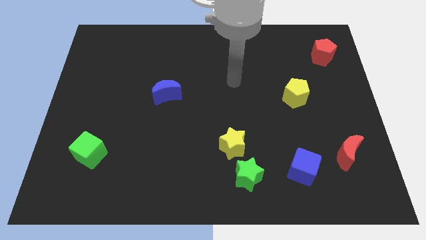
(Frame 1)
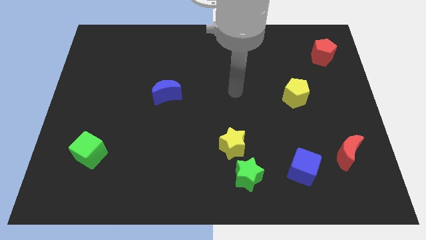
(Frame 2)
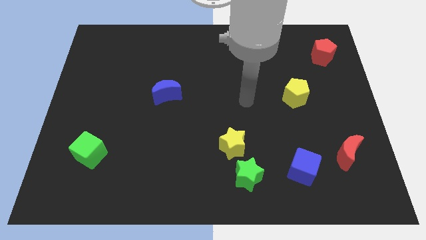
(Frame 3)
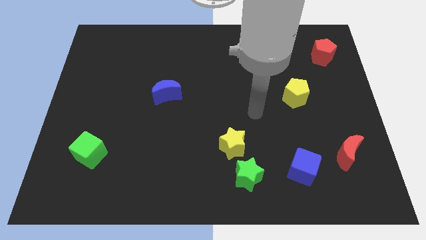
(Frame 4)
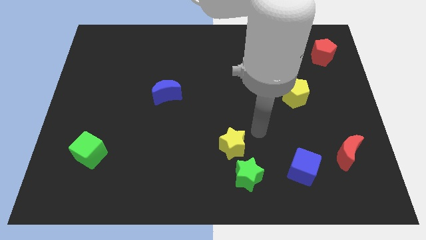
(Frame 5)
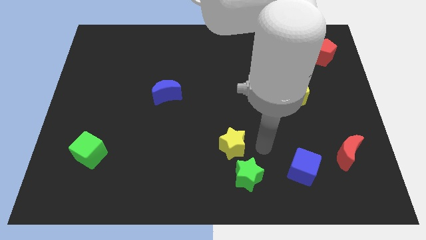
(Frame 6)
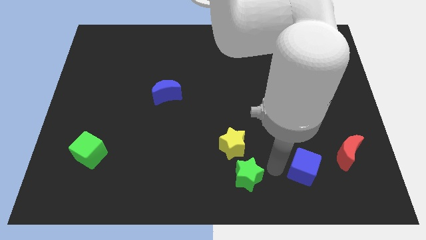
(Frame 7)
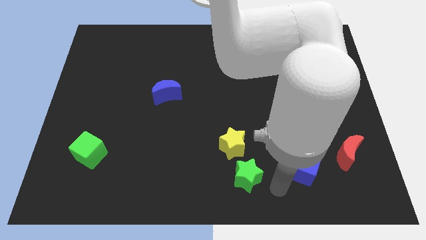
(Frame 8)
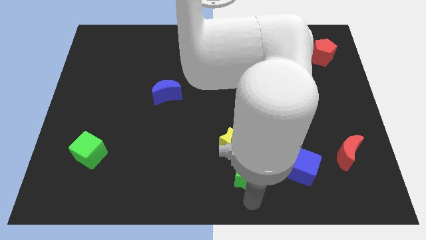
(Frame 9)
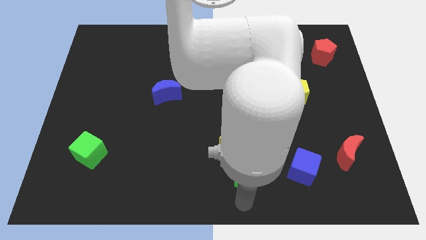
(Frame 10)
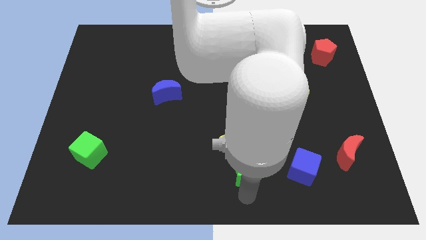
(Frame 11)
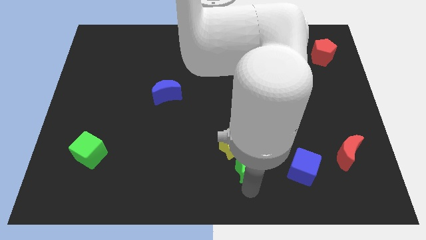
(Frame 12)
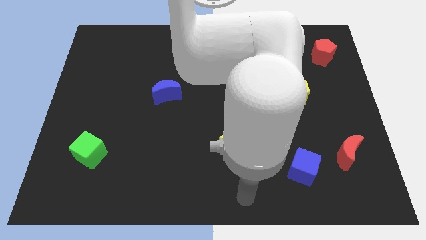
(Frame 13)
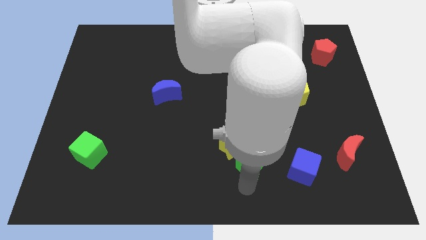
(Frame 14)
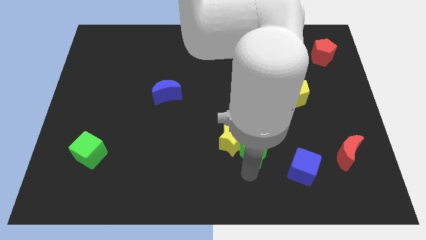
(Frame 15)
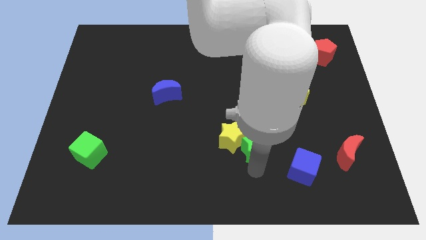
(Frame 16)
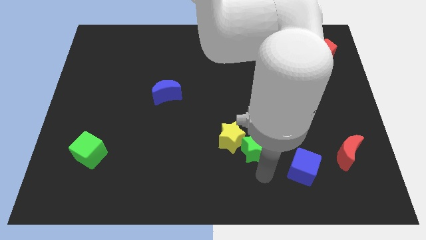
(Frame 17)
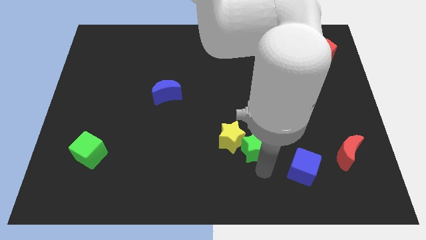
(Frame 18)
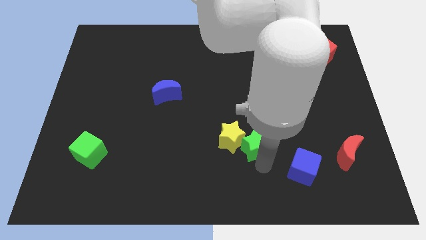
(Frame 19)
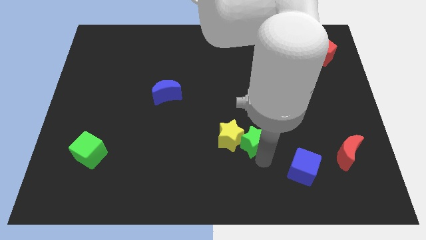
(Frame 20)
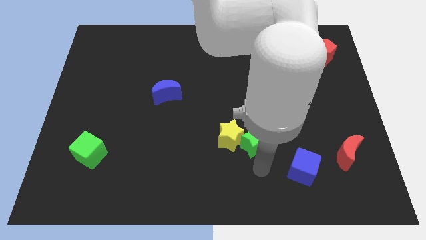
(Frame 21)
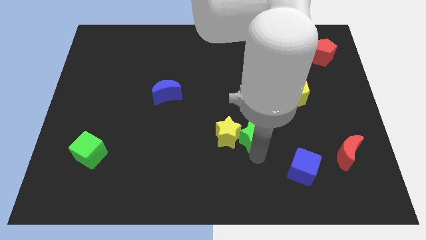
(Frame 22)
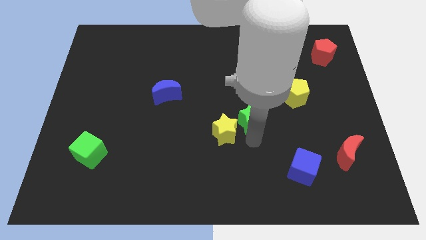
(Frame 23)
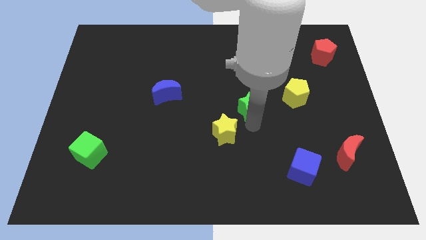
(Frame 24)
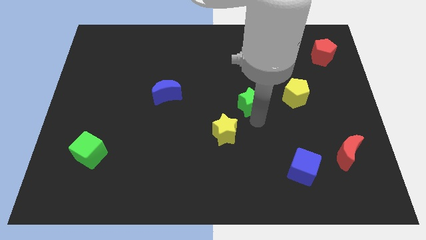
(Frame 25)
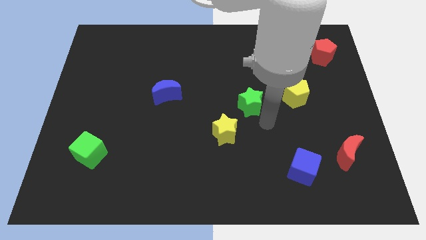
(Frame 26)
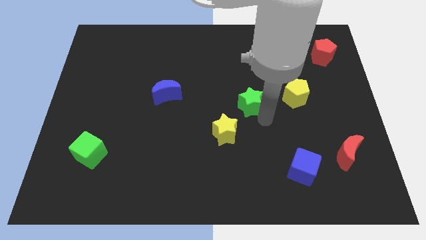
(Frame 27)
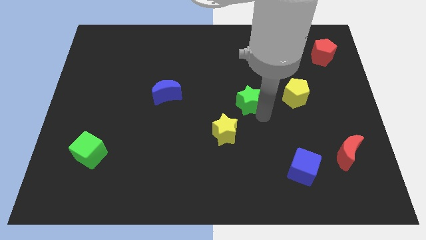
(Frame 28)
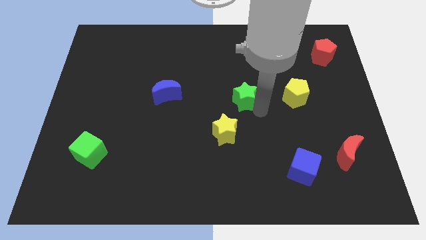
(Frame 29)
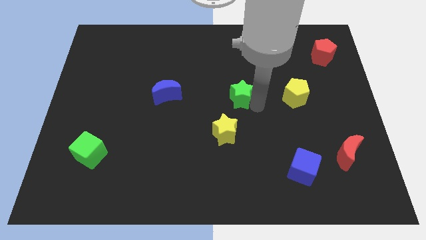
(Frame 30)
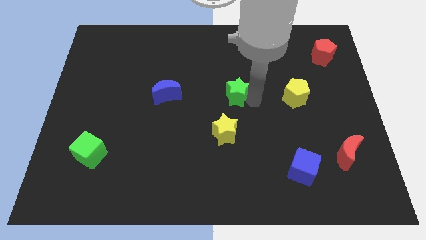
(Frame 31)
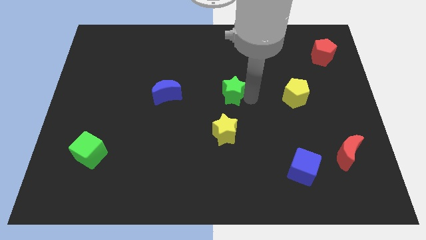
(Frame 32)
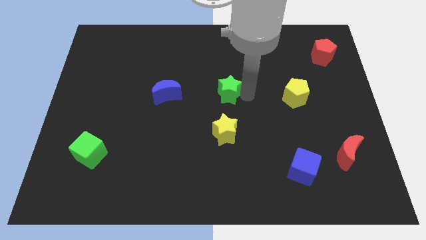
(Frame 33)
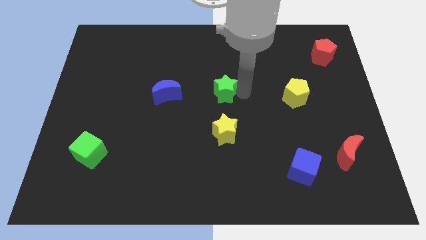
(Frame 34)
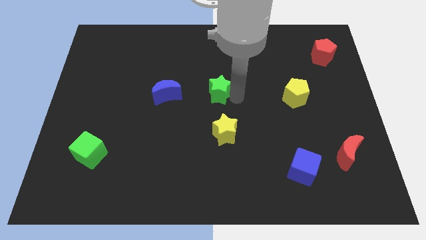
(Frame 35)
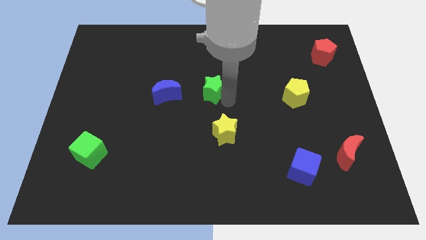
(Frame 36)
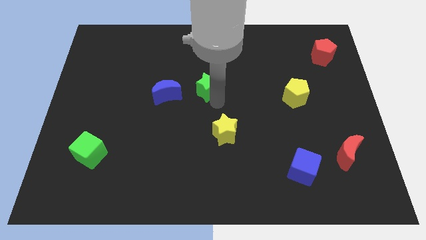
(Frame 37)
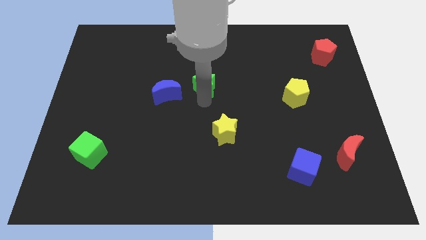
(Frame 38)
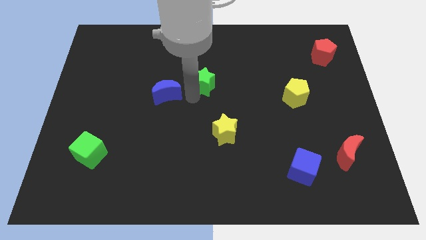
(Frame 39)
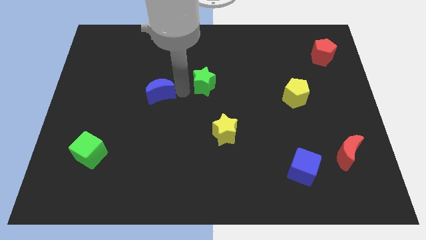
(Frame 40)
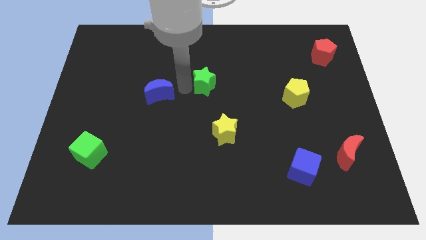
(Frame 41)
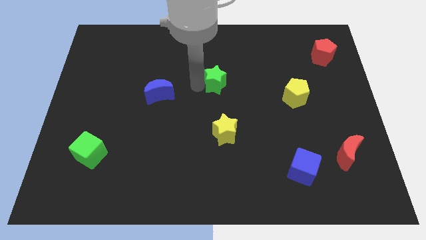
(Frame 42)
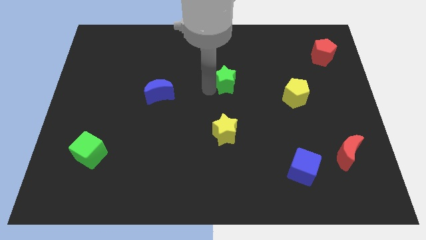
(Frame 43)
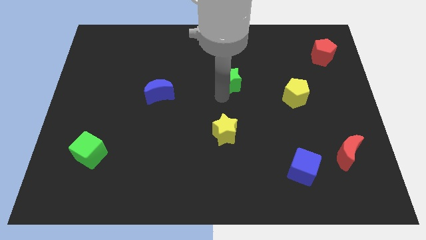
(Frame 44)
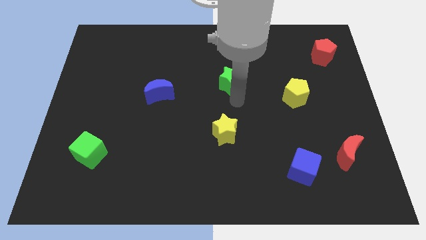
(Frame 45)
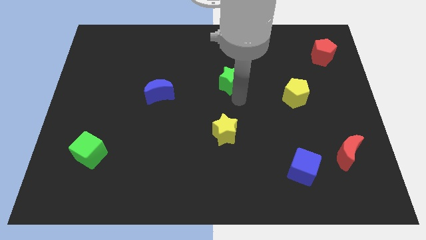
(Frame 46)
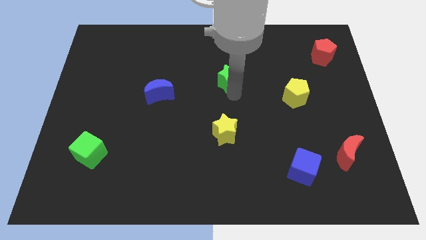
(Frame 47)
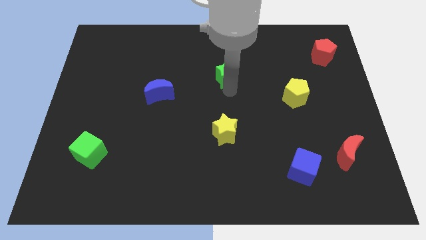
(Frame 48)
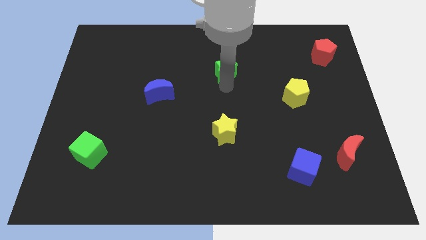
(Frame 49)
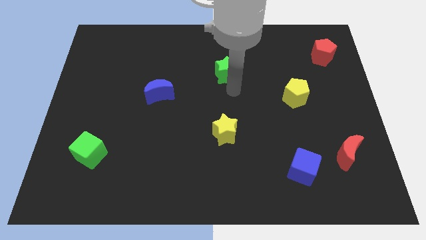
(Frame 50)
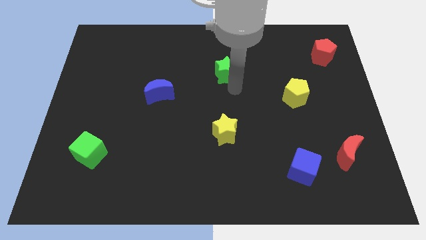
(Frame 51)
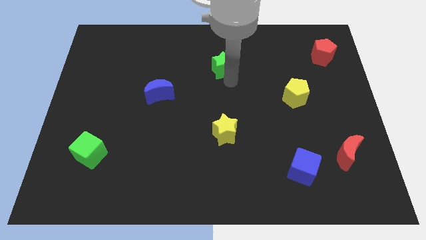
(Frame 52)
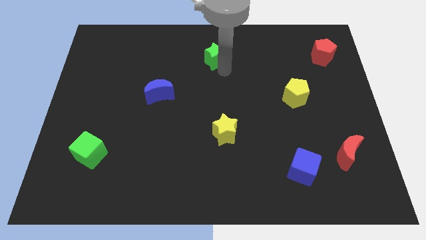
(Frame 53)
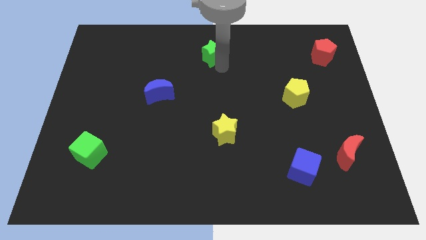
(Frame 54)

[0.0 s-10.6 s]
put the green star to the top
